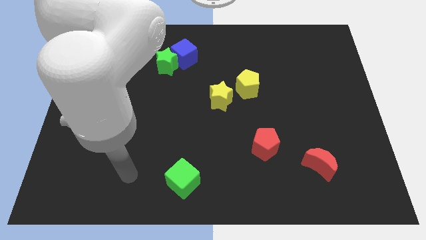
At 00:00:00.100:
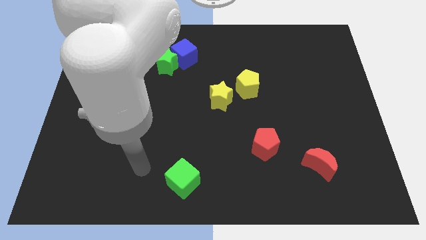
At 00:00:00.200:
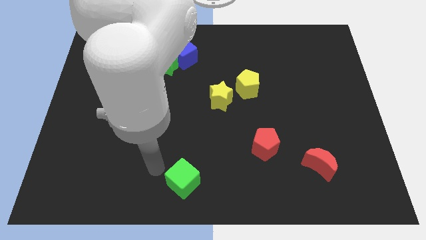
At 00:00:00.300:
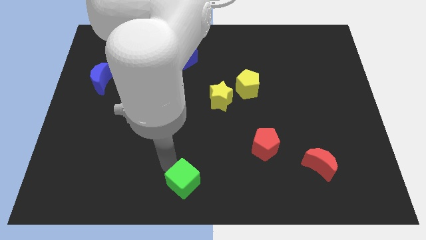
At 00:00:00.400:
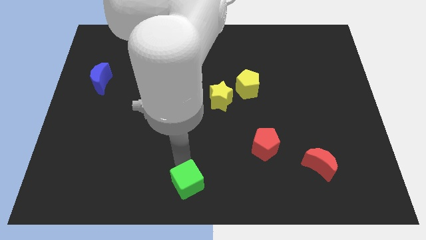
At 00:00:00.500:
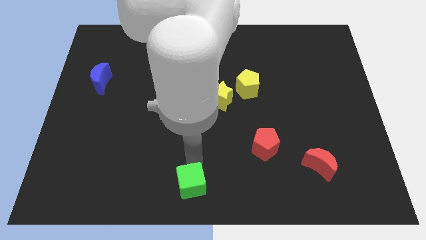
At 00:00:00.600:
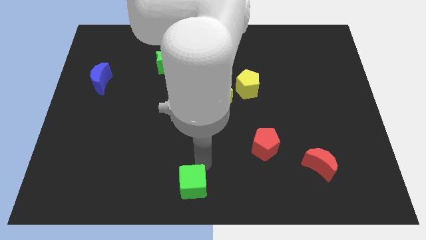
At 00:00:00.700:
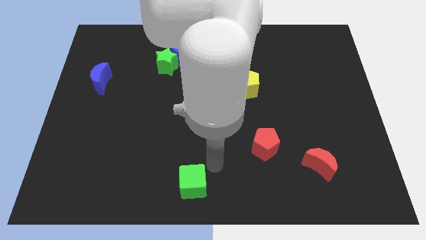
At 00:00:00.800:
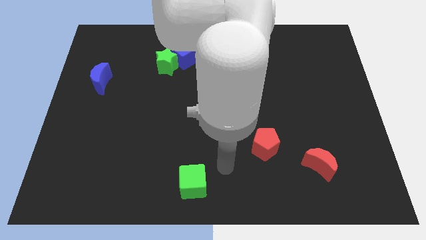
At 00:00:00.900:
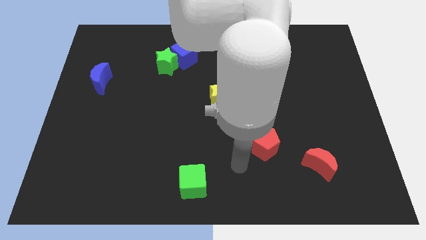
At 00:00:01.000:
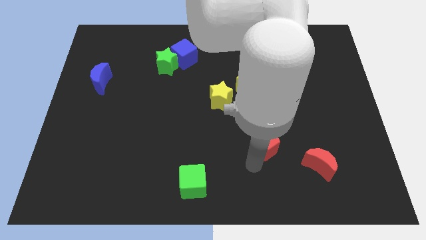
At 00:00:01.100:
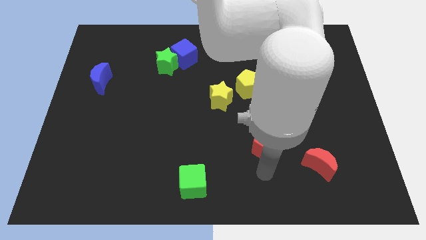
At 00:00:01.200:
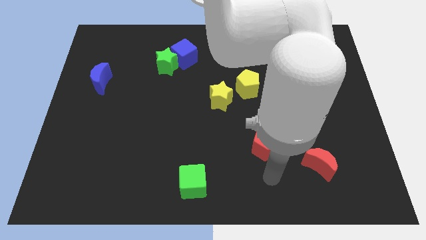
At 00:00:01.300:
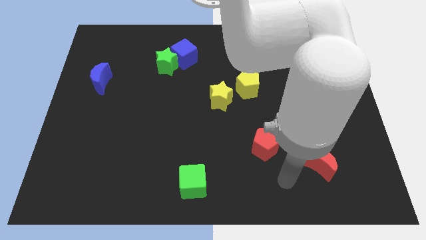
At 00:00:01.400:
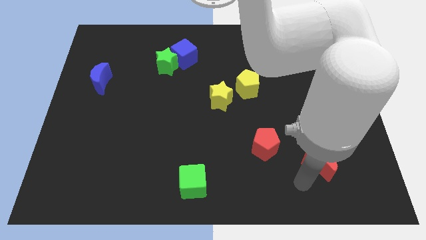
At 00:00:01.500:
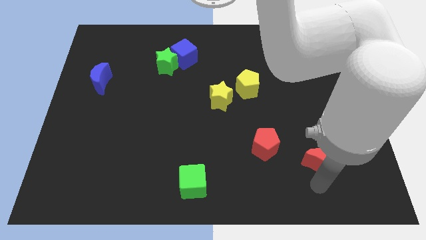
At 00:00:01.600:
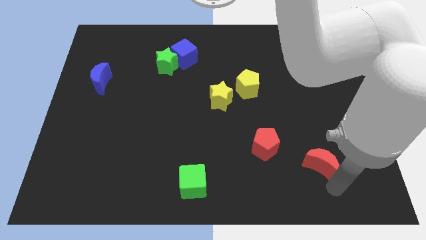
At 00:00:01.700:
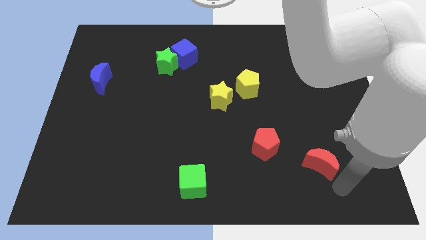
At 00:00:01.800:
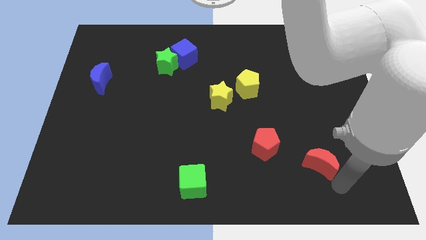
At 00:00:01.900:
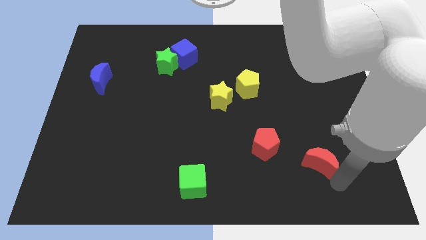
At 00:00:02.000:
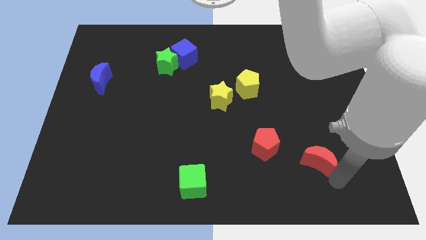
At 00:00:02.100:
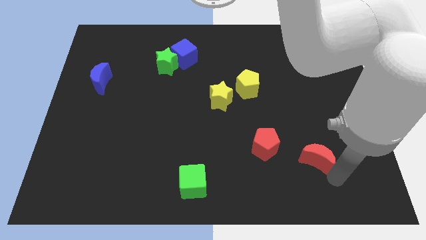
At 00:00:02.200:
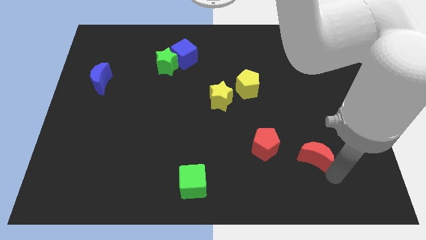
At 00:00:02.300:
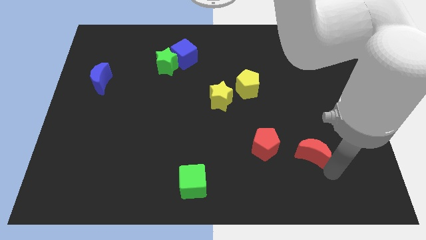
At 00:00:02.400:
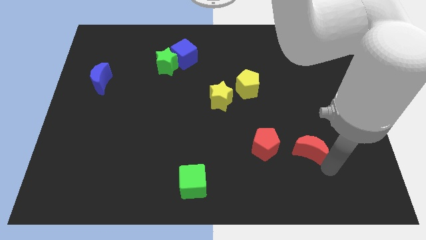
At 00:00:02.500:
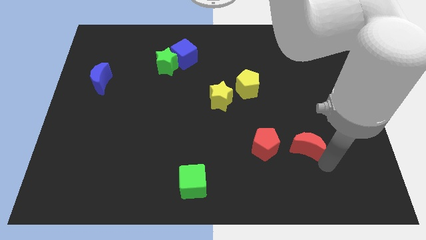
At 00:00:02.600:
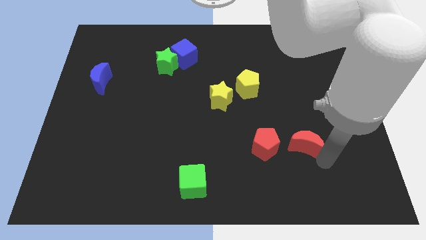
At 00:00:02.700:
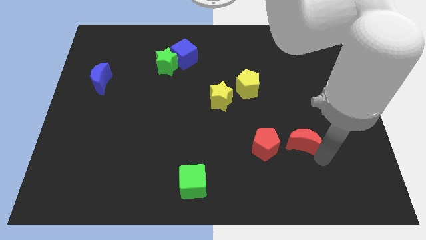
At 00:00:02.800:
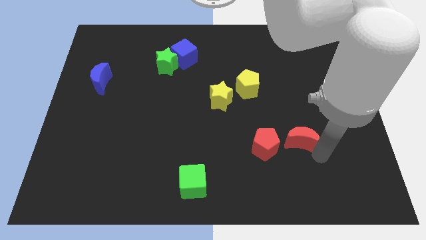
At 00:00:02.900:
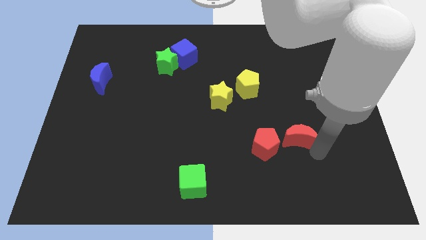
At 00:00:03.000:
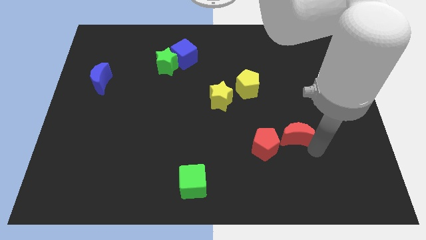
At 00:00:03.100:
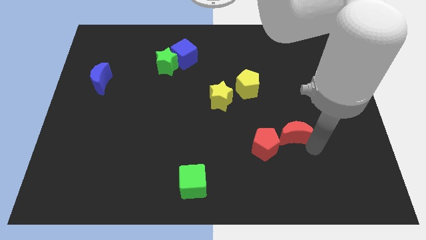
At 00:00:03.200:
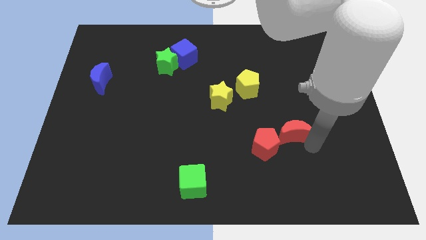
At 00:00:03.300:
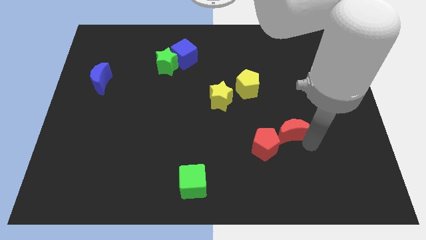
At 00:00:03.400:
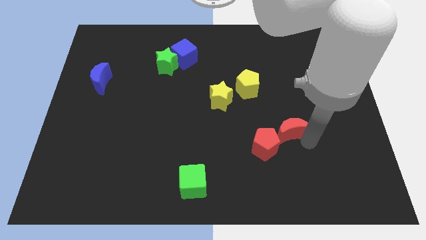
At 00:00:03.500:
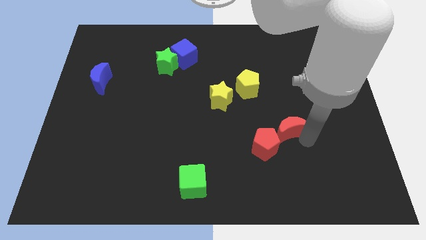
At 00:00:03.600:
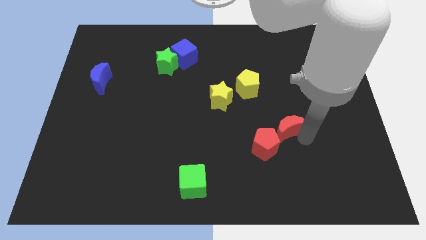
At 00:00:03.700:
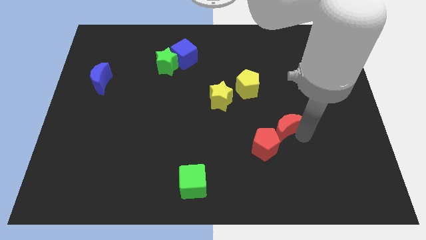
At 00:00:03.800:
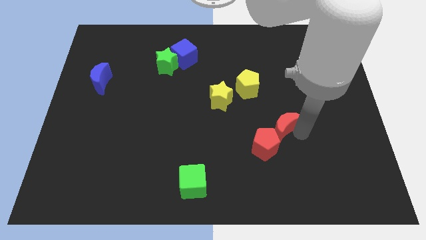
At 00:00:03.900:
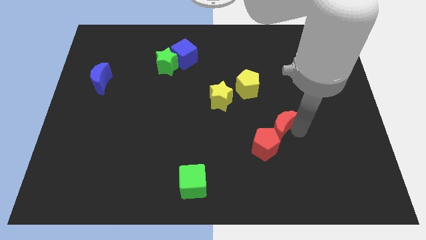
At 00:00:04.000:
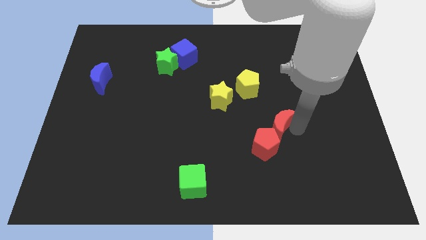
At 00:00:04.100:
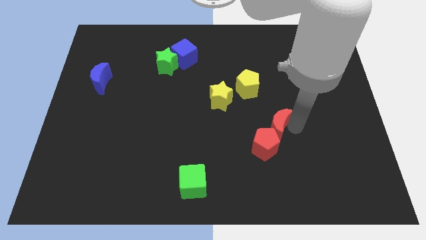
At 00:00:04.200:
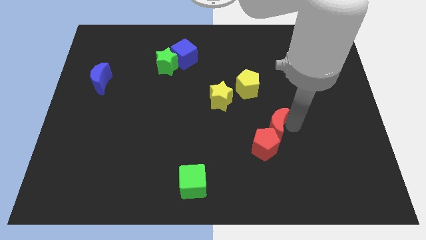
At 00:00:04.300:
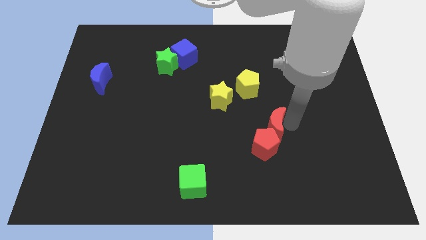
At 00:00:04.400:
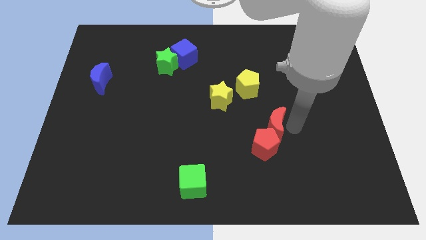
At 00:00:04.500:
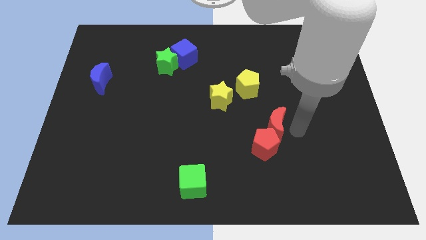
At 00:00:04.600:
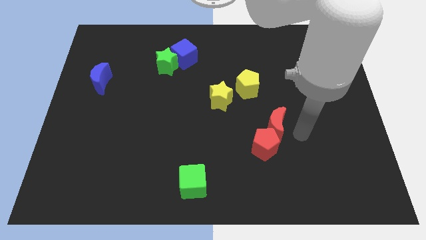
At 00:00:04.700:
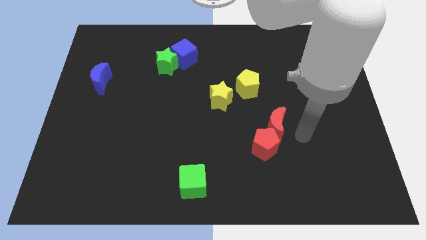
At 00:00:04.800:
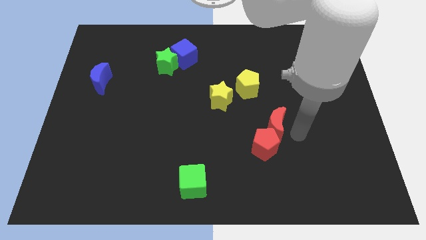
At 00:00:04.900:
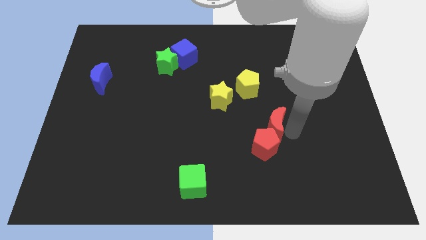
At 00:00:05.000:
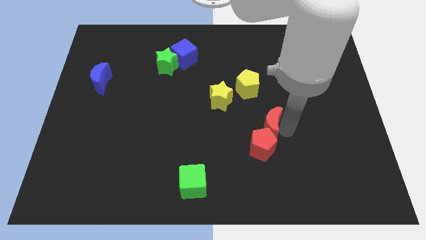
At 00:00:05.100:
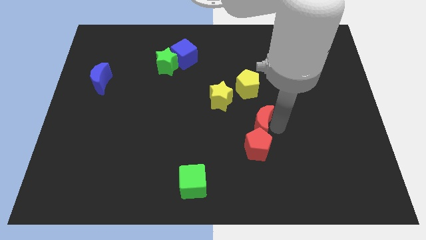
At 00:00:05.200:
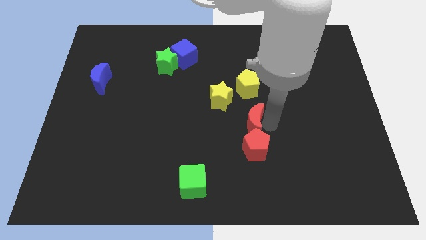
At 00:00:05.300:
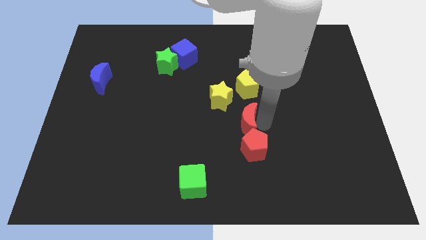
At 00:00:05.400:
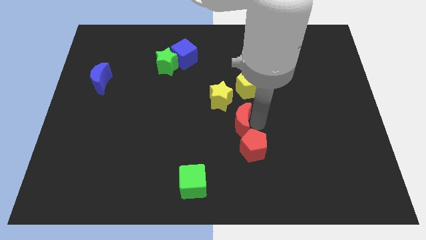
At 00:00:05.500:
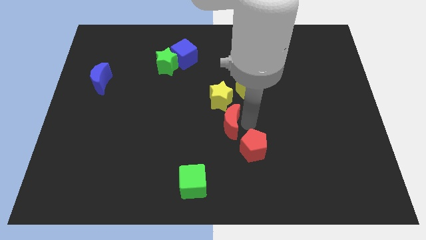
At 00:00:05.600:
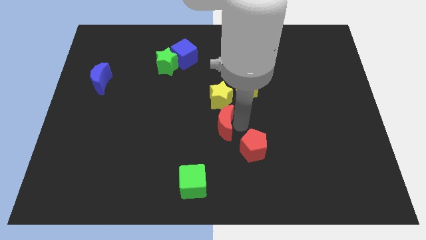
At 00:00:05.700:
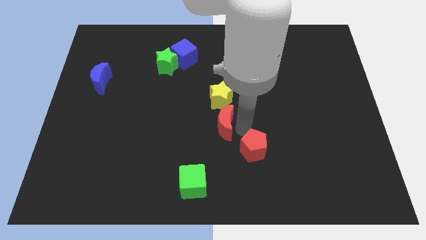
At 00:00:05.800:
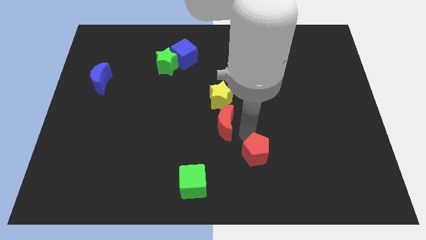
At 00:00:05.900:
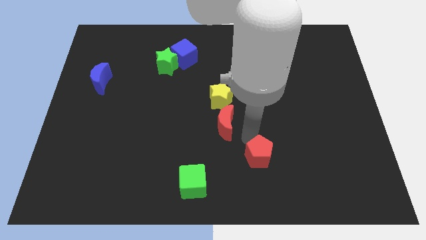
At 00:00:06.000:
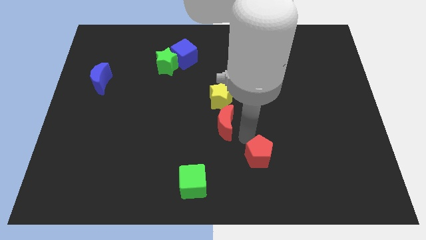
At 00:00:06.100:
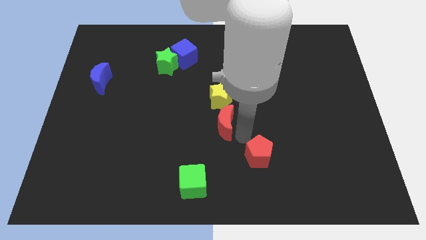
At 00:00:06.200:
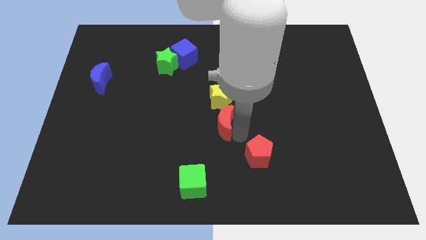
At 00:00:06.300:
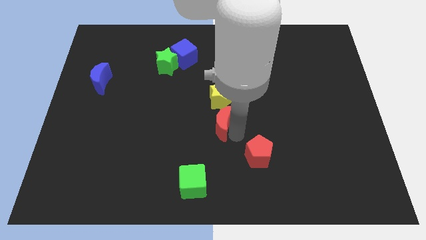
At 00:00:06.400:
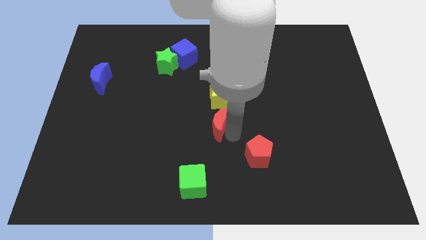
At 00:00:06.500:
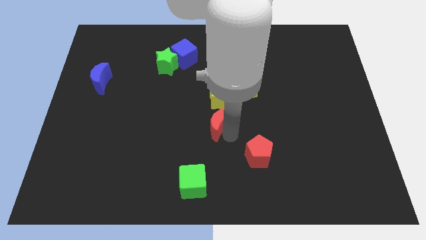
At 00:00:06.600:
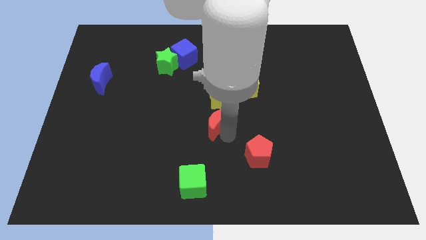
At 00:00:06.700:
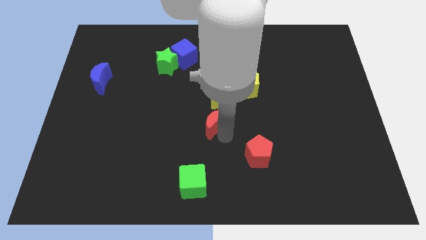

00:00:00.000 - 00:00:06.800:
slide the red moon diagonally upwards and left

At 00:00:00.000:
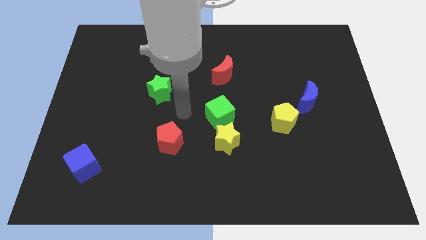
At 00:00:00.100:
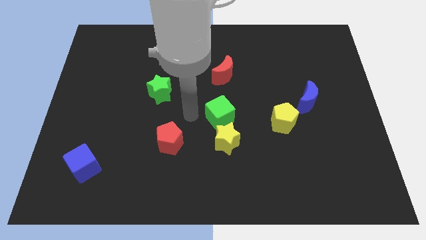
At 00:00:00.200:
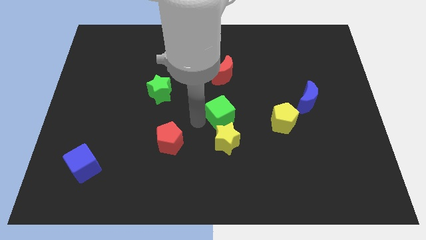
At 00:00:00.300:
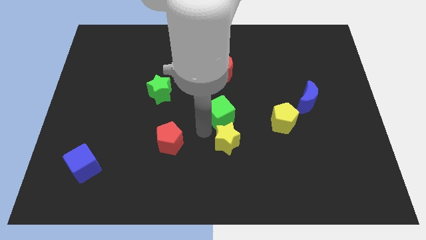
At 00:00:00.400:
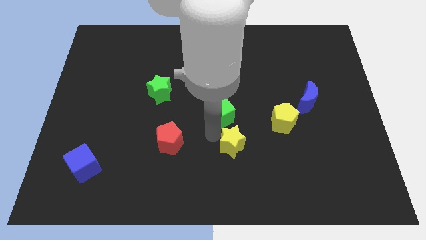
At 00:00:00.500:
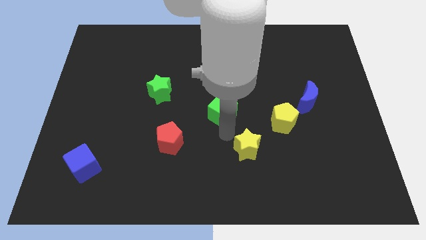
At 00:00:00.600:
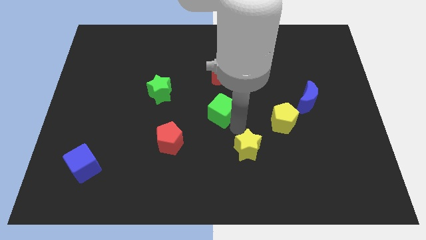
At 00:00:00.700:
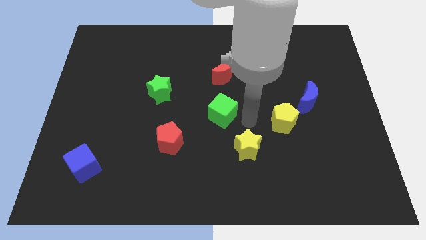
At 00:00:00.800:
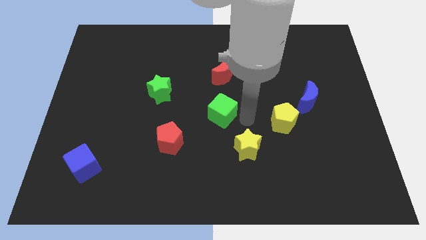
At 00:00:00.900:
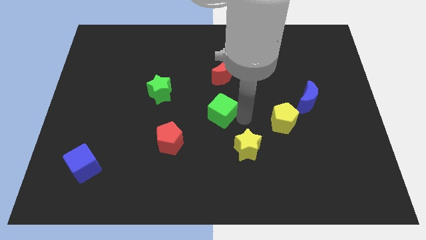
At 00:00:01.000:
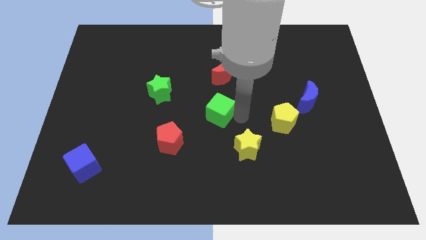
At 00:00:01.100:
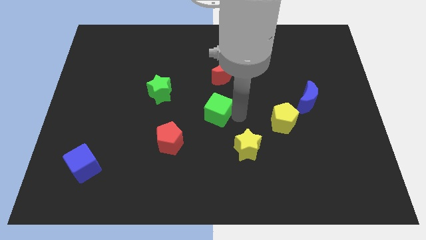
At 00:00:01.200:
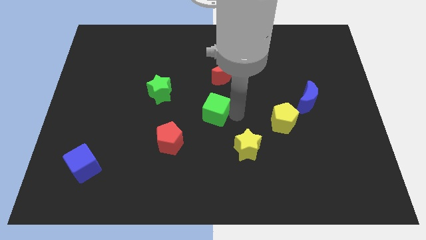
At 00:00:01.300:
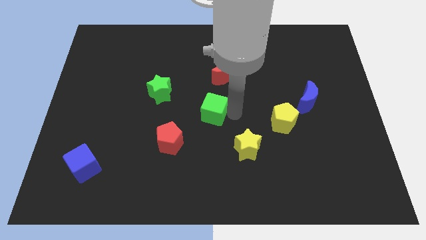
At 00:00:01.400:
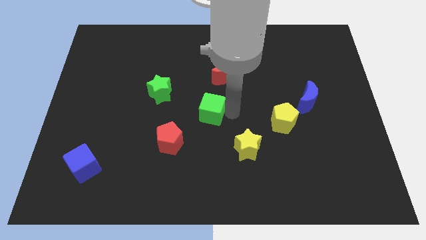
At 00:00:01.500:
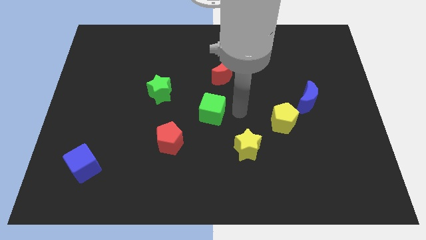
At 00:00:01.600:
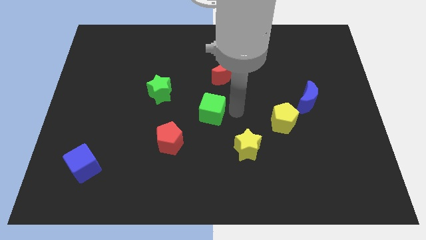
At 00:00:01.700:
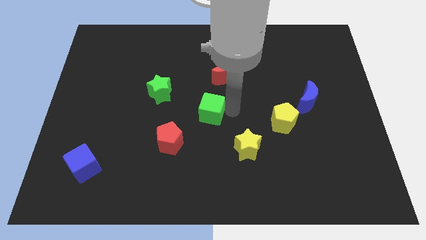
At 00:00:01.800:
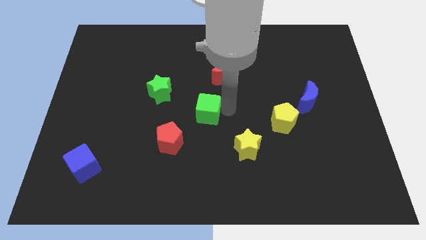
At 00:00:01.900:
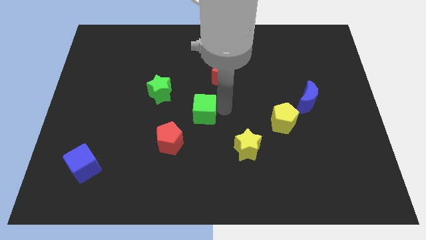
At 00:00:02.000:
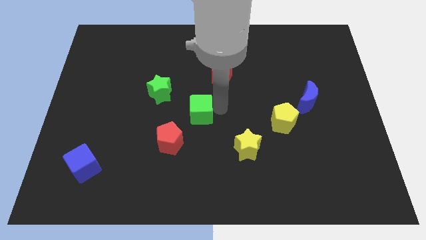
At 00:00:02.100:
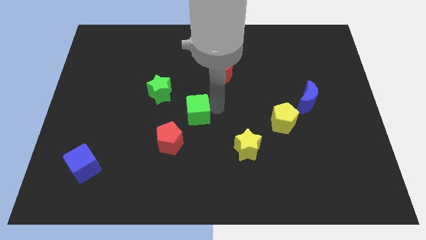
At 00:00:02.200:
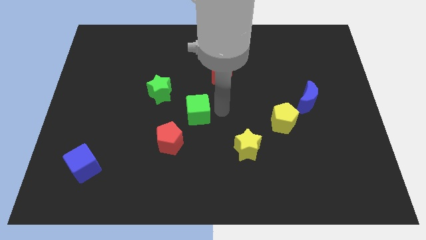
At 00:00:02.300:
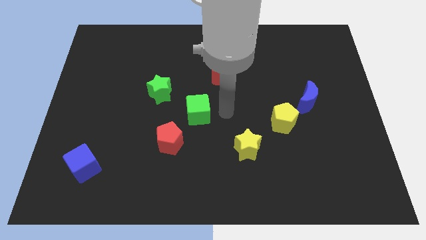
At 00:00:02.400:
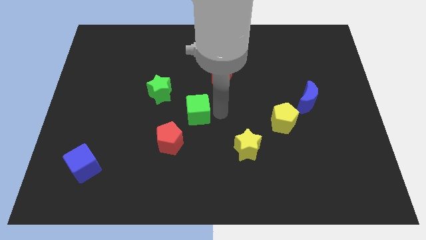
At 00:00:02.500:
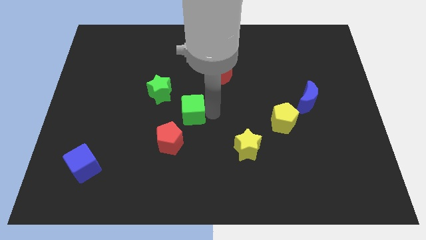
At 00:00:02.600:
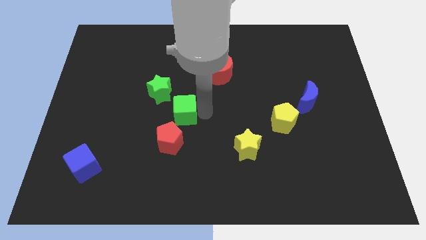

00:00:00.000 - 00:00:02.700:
push the green cube to the left a little
